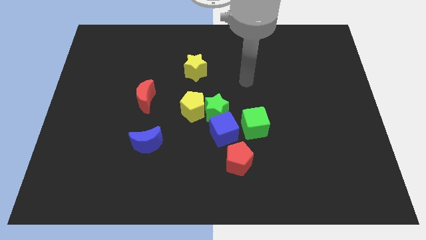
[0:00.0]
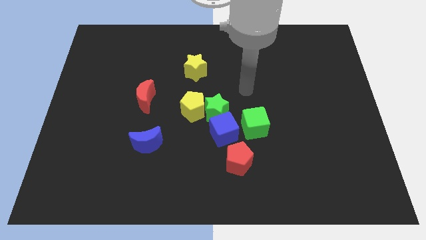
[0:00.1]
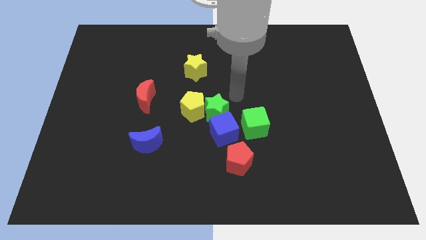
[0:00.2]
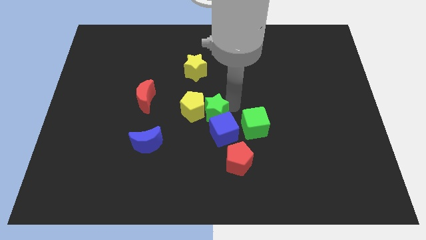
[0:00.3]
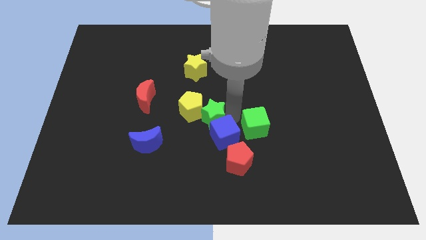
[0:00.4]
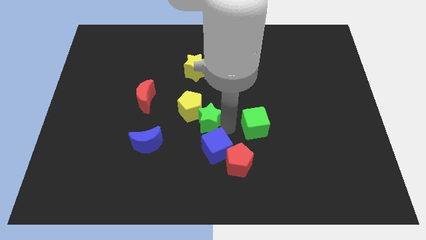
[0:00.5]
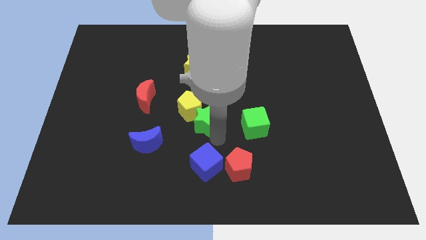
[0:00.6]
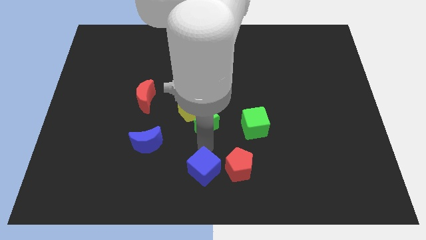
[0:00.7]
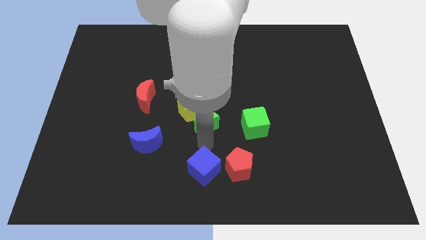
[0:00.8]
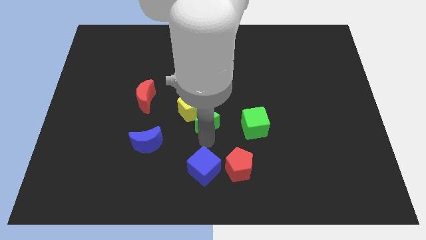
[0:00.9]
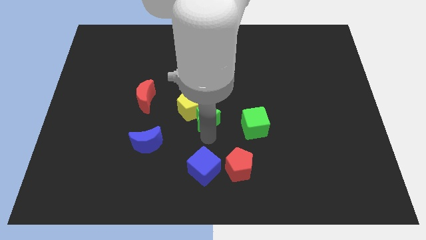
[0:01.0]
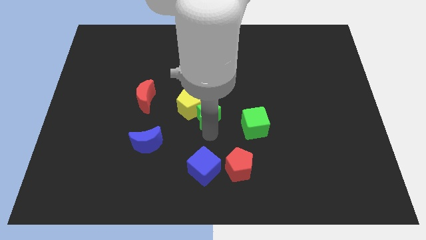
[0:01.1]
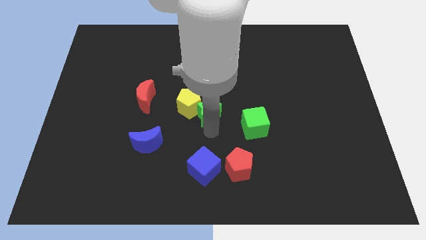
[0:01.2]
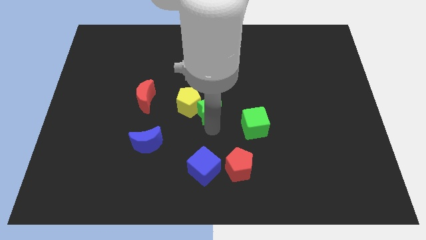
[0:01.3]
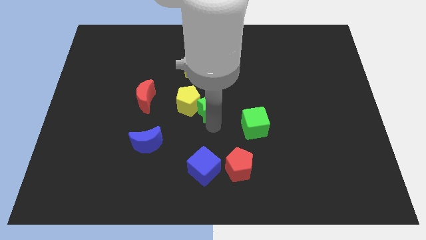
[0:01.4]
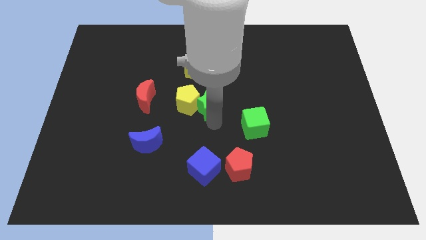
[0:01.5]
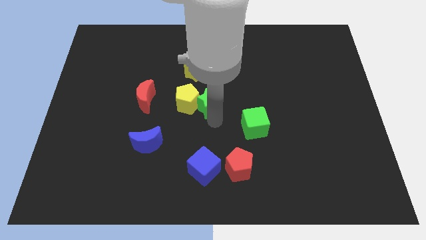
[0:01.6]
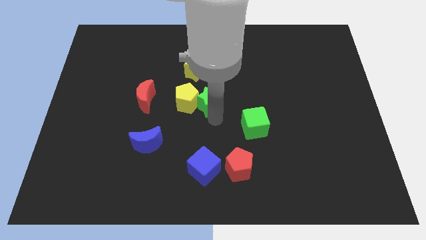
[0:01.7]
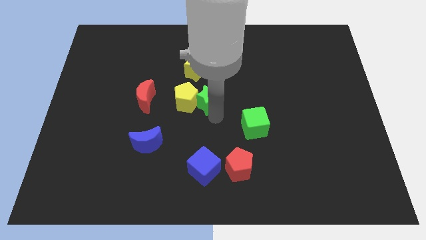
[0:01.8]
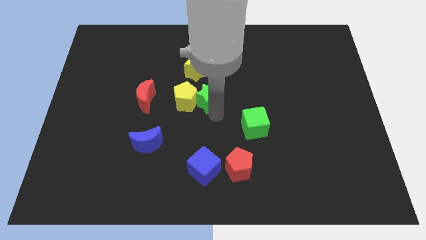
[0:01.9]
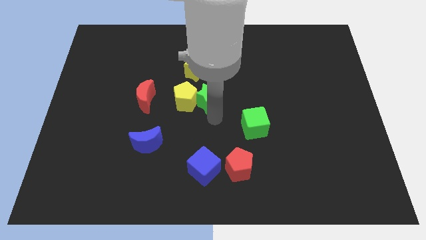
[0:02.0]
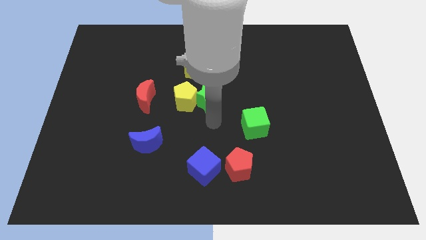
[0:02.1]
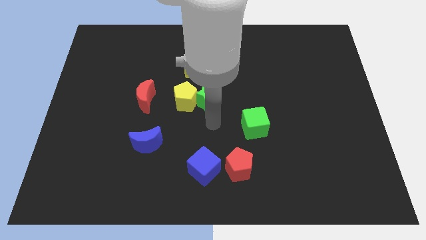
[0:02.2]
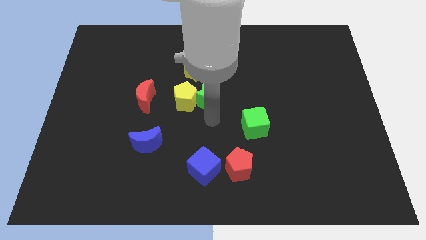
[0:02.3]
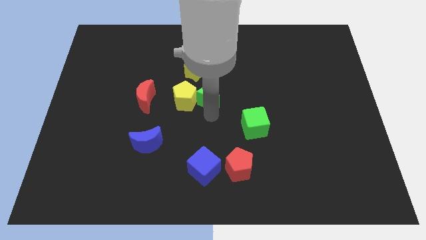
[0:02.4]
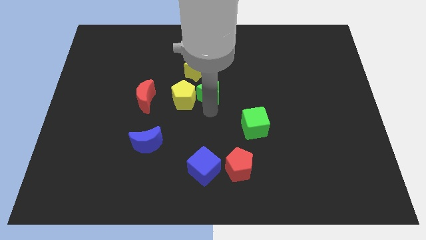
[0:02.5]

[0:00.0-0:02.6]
separate the green star from the clump

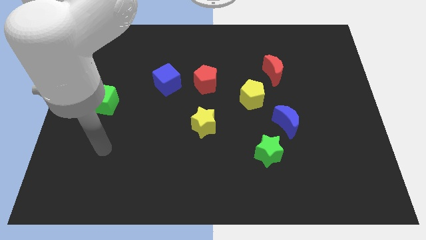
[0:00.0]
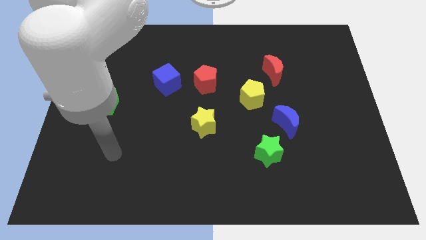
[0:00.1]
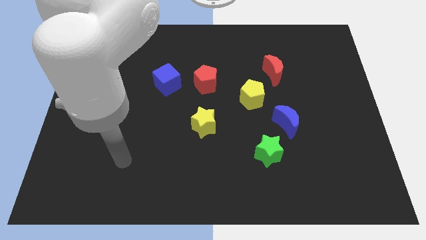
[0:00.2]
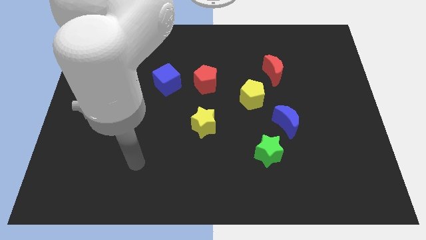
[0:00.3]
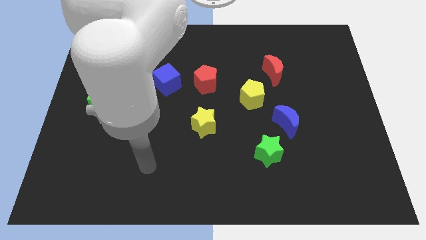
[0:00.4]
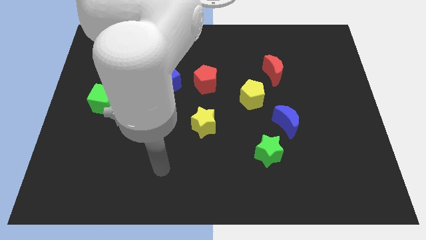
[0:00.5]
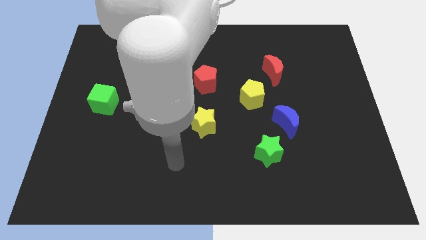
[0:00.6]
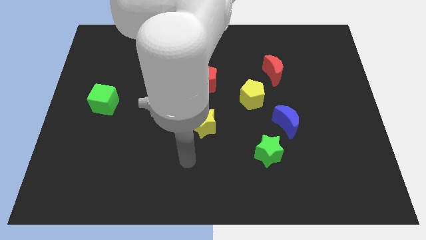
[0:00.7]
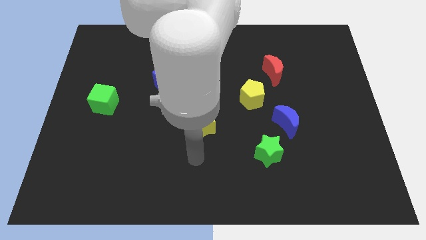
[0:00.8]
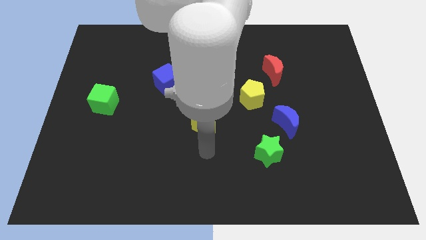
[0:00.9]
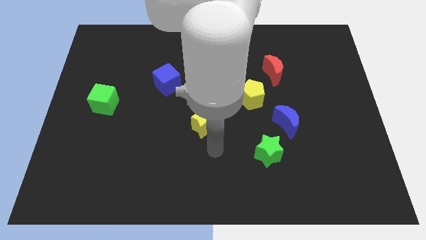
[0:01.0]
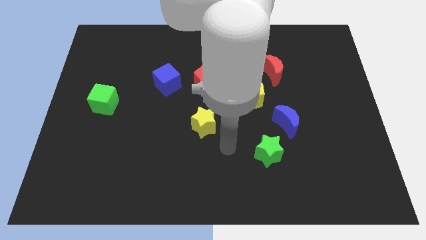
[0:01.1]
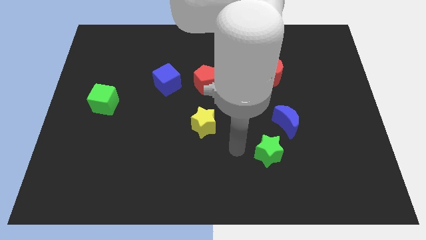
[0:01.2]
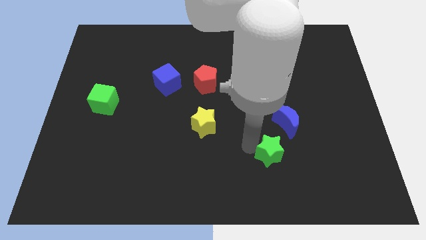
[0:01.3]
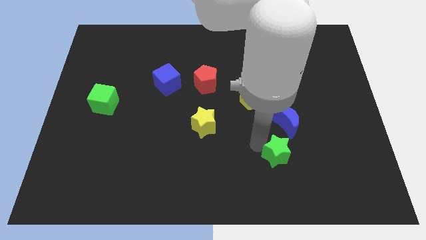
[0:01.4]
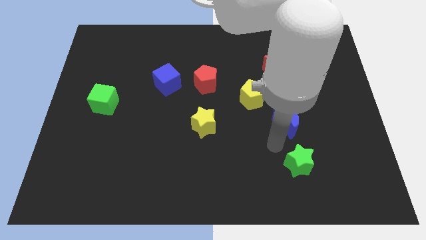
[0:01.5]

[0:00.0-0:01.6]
move the blue moon away from the green star

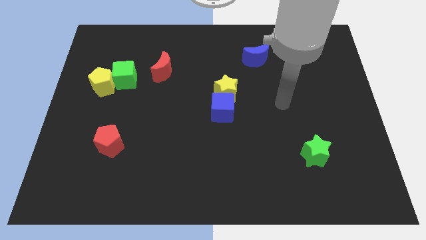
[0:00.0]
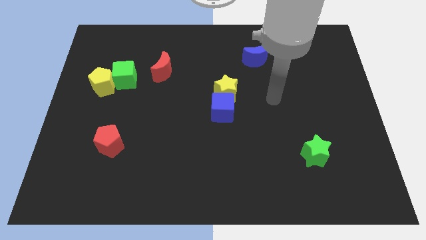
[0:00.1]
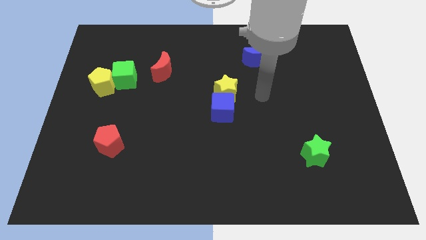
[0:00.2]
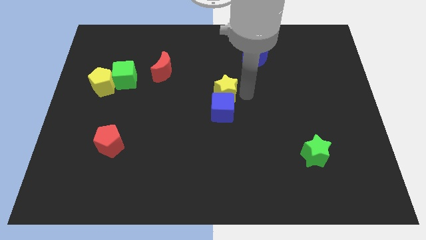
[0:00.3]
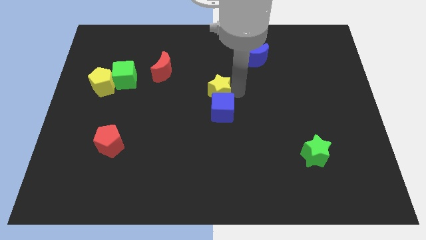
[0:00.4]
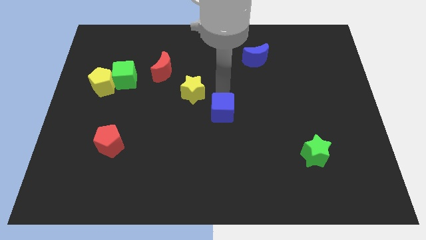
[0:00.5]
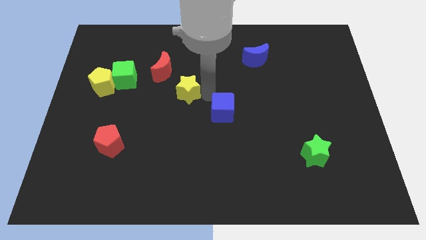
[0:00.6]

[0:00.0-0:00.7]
pull the blue cube apart from the yellow star

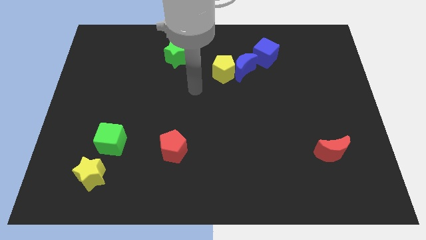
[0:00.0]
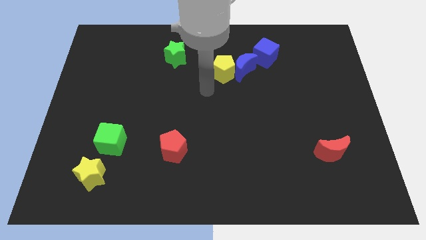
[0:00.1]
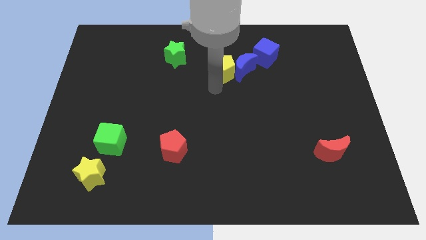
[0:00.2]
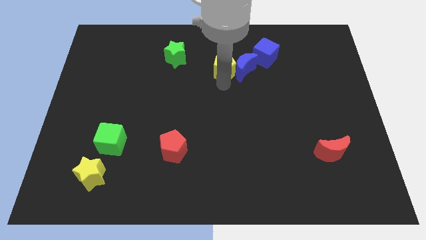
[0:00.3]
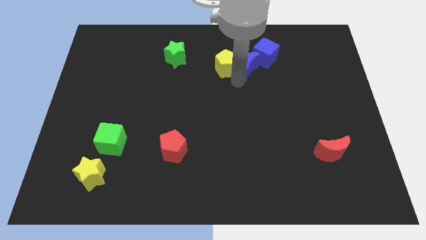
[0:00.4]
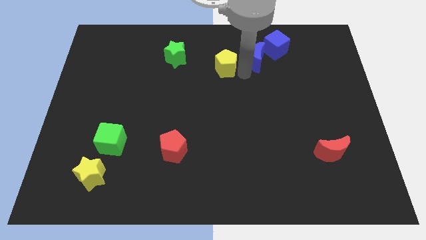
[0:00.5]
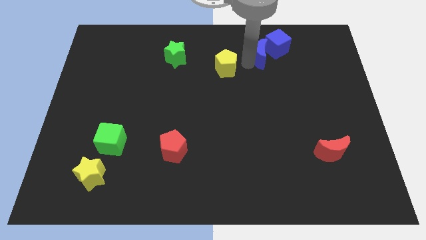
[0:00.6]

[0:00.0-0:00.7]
separate the yellow pentagon from the blue moon

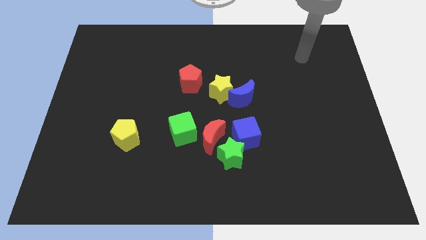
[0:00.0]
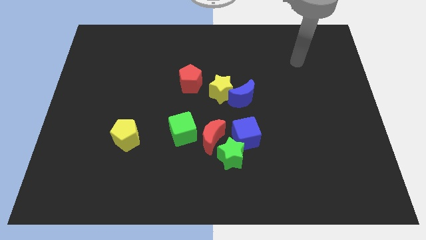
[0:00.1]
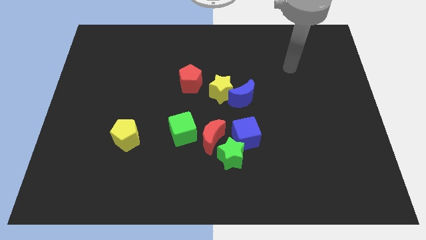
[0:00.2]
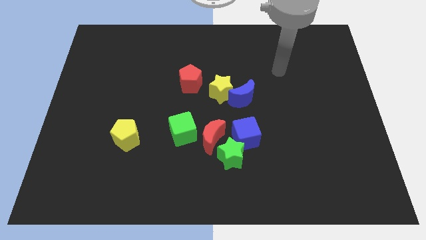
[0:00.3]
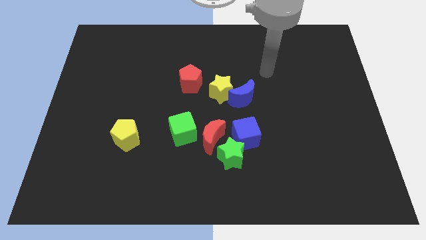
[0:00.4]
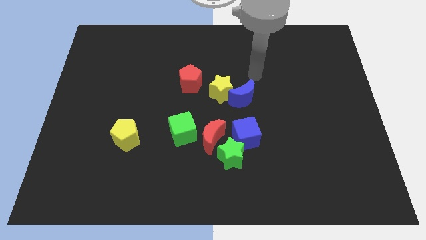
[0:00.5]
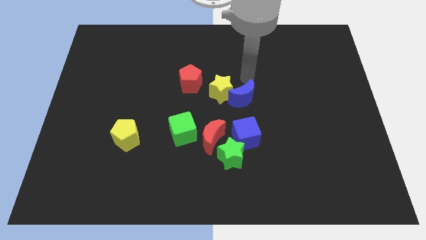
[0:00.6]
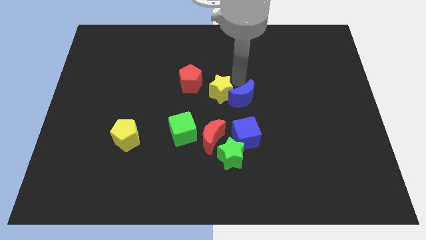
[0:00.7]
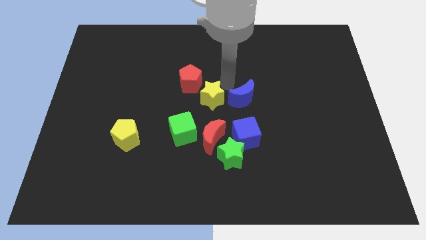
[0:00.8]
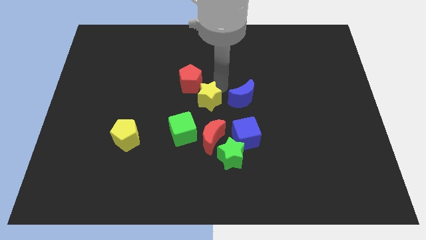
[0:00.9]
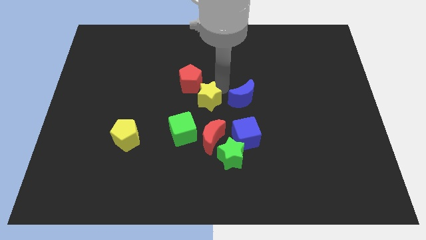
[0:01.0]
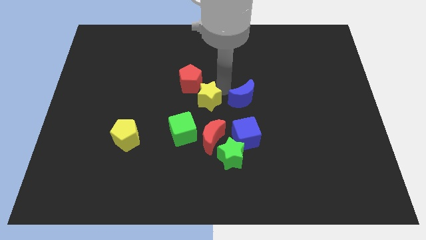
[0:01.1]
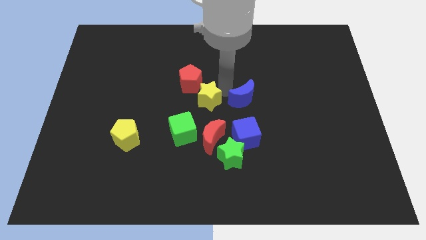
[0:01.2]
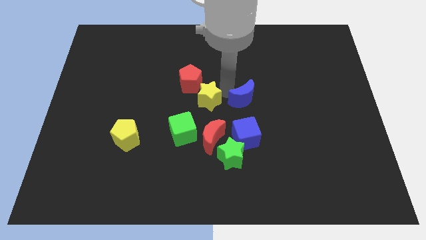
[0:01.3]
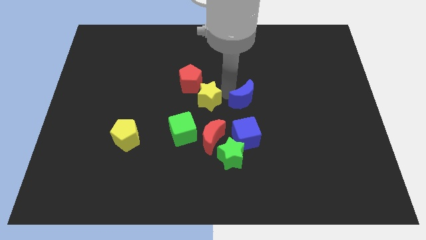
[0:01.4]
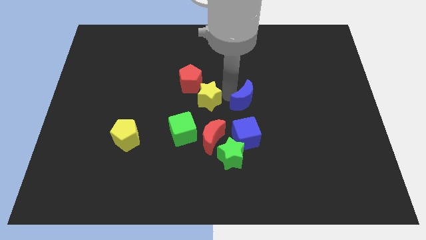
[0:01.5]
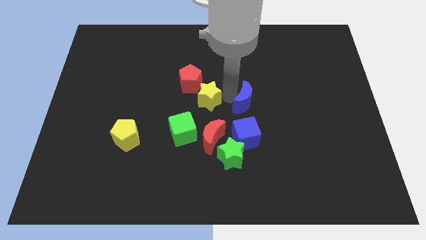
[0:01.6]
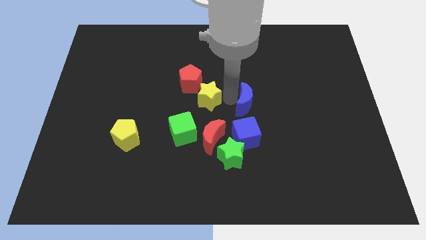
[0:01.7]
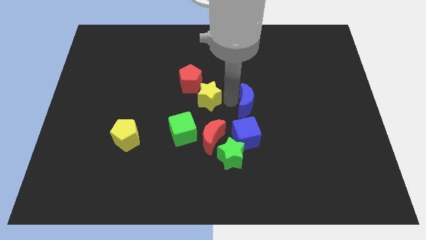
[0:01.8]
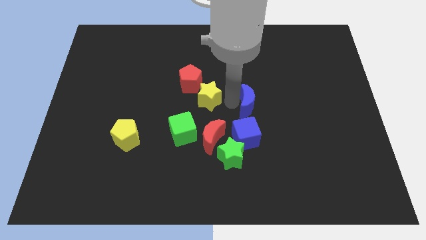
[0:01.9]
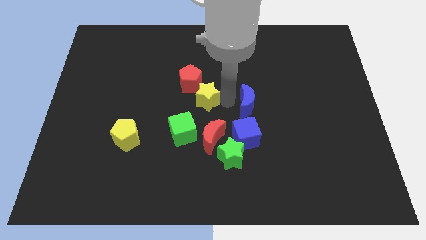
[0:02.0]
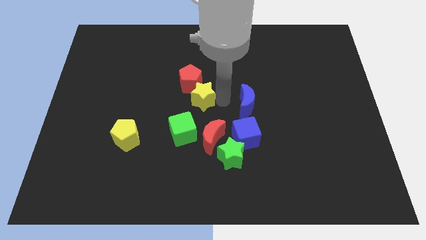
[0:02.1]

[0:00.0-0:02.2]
pull the blue moon apart from the yellow star

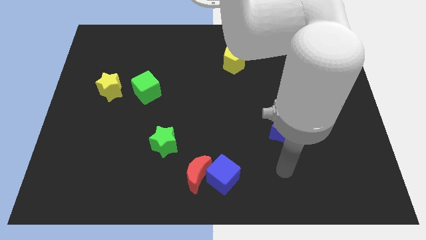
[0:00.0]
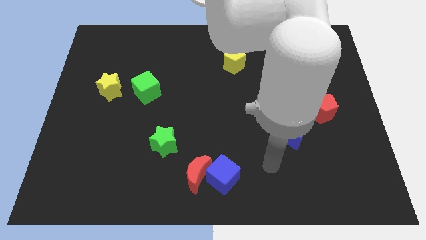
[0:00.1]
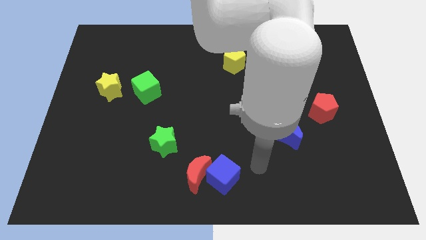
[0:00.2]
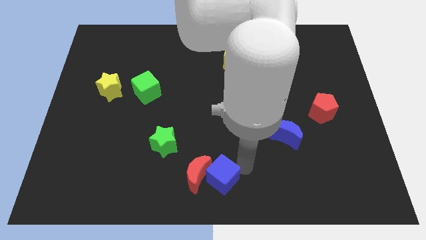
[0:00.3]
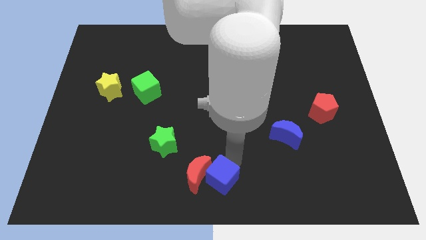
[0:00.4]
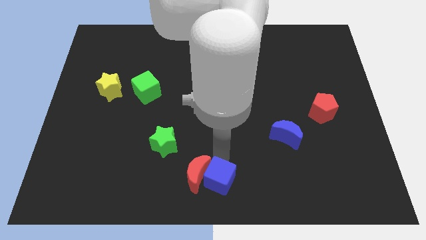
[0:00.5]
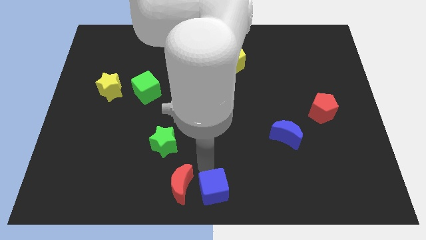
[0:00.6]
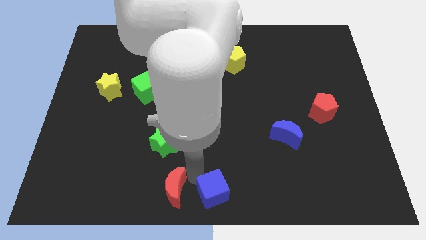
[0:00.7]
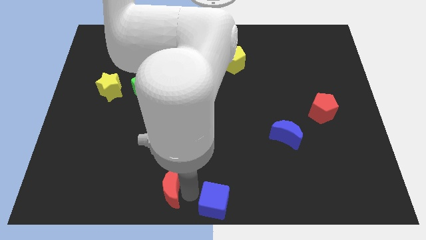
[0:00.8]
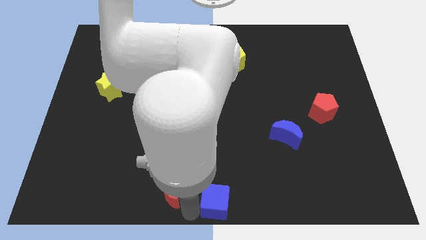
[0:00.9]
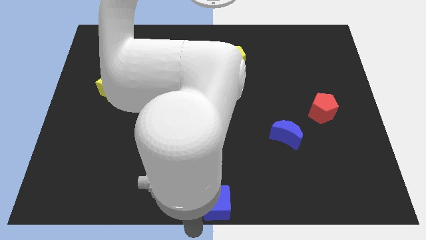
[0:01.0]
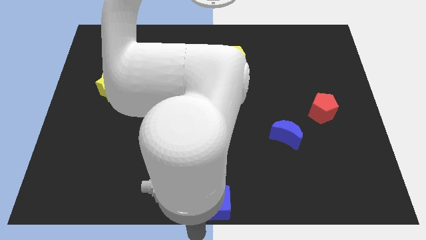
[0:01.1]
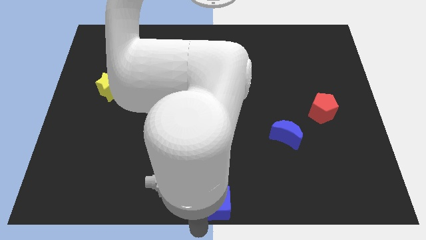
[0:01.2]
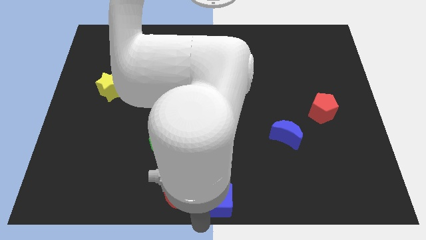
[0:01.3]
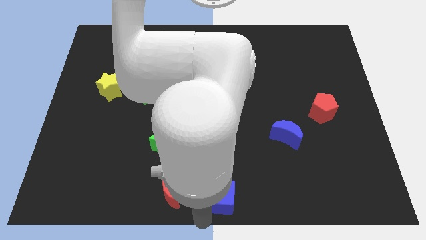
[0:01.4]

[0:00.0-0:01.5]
separate the blue cube from the red moon
